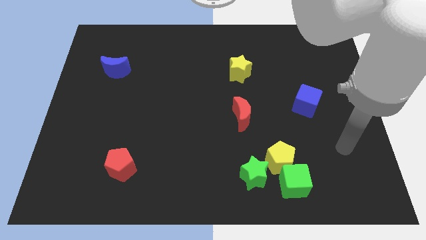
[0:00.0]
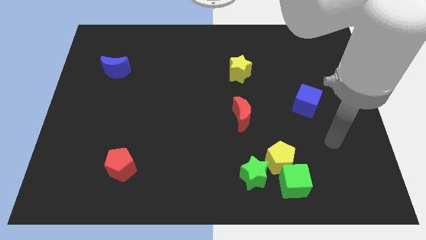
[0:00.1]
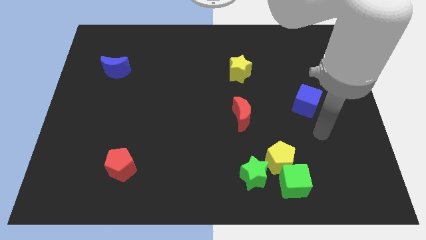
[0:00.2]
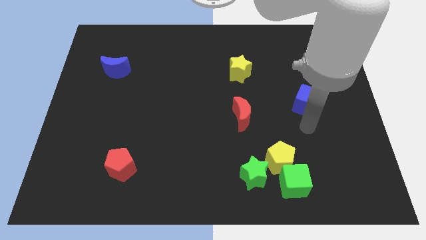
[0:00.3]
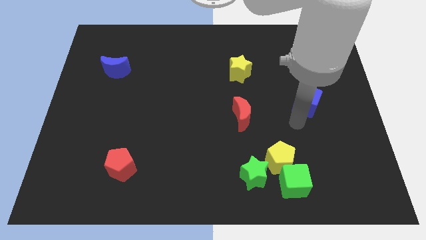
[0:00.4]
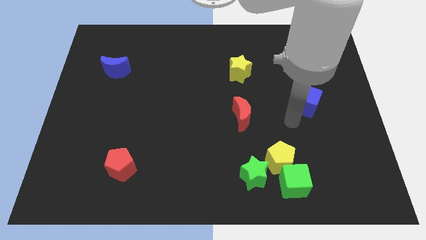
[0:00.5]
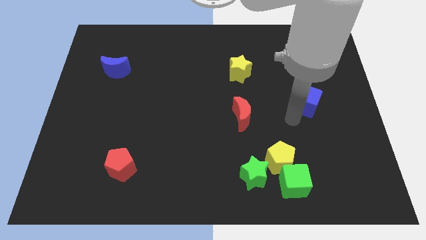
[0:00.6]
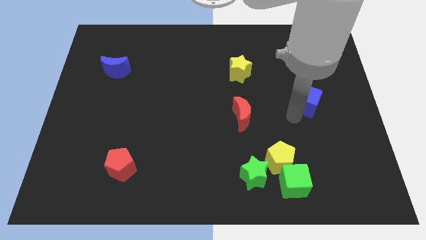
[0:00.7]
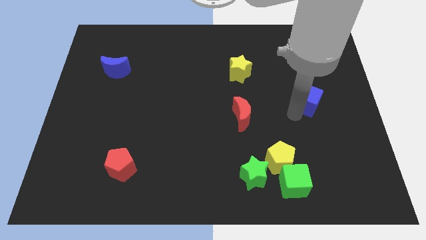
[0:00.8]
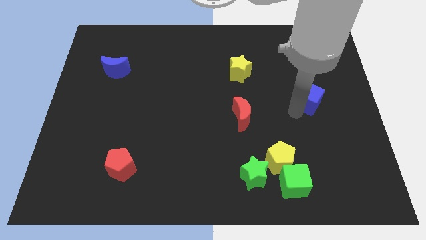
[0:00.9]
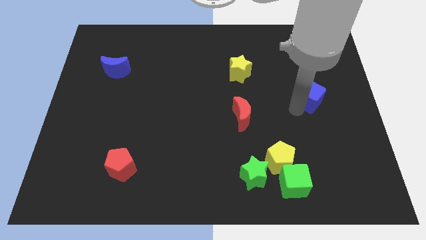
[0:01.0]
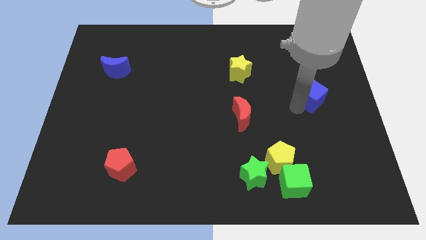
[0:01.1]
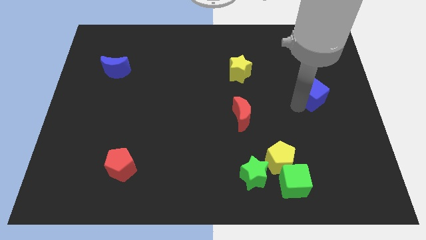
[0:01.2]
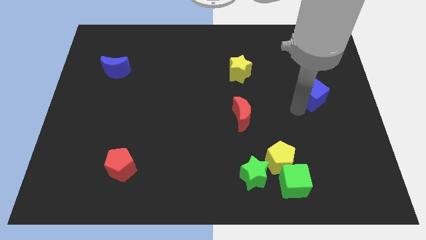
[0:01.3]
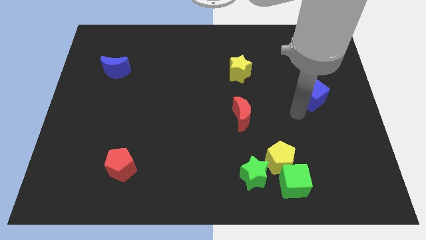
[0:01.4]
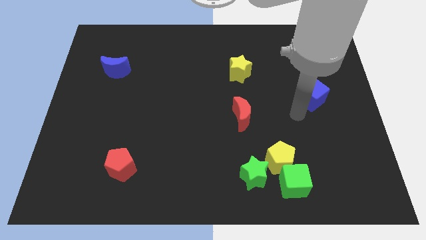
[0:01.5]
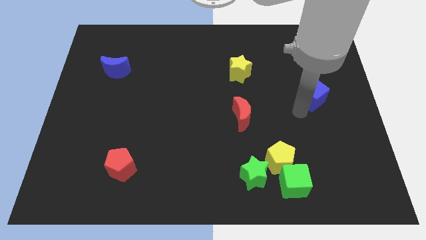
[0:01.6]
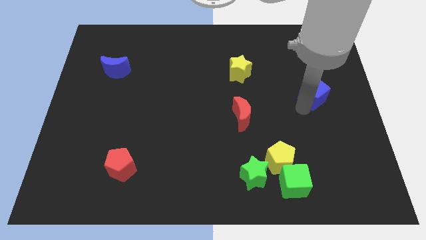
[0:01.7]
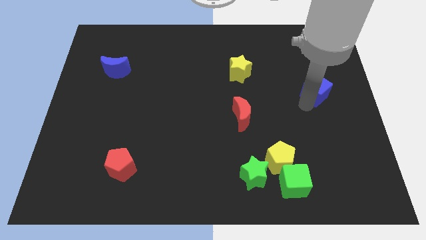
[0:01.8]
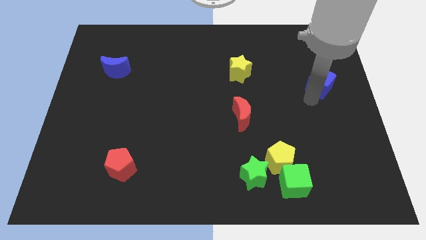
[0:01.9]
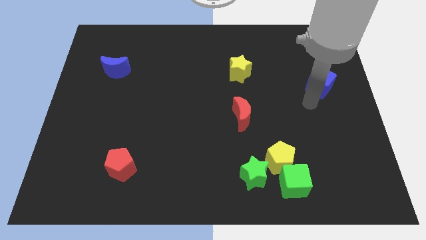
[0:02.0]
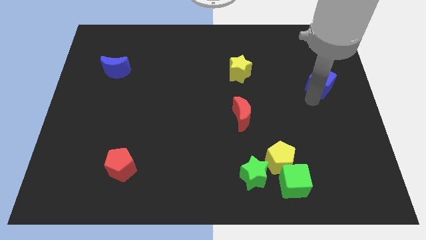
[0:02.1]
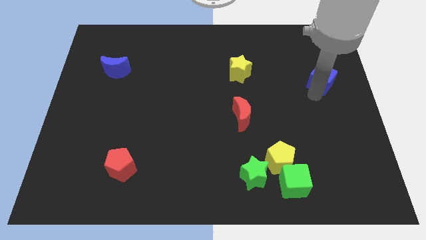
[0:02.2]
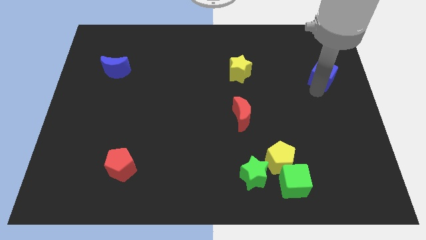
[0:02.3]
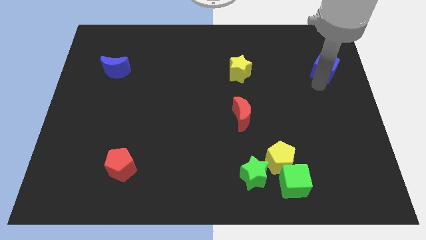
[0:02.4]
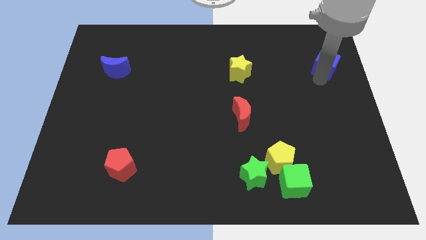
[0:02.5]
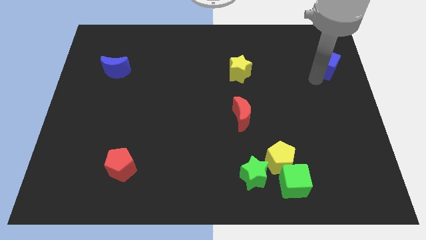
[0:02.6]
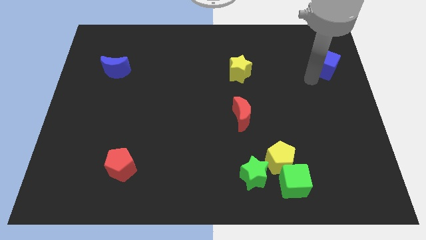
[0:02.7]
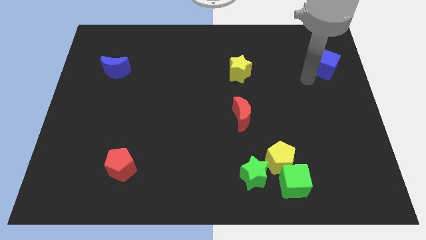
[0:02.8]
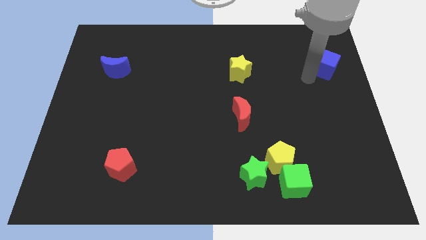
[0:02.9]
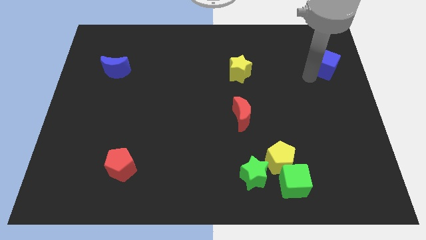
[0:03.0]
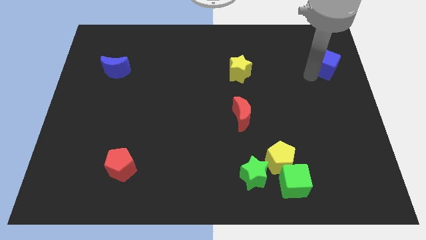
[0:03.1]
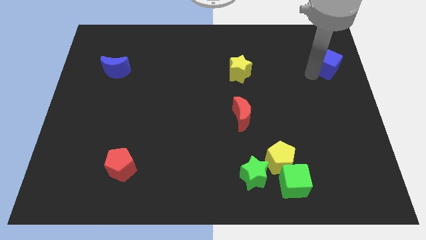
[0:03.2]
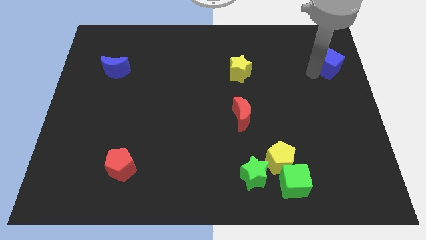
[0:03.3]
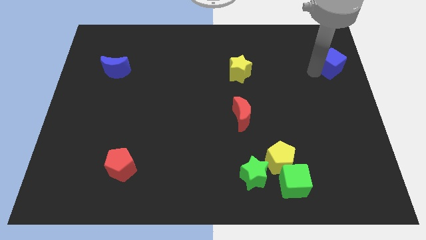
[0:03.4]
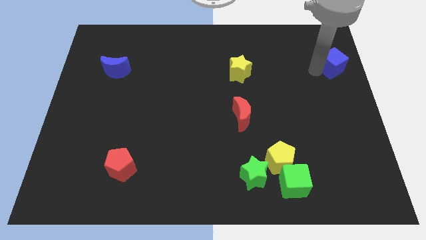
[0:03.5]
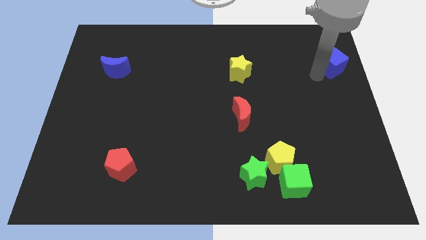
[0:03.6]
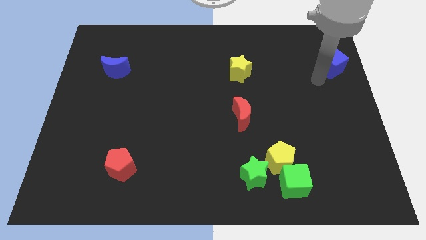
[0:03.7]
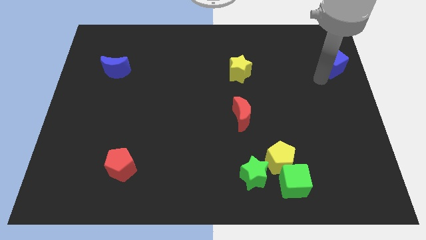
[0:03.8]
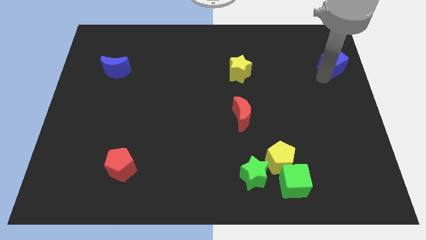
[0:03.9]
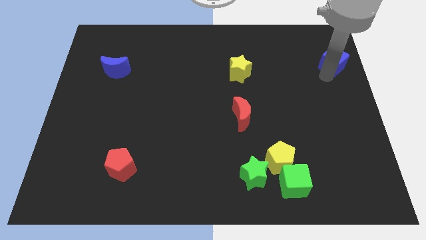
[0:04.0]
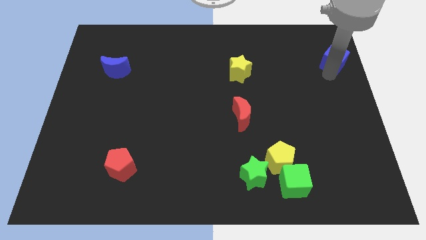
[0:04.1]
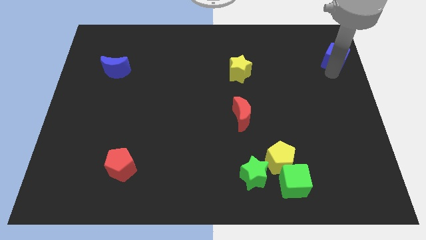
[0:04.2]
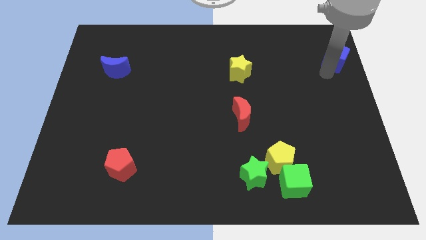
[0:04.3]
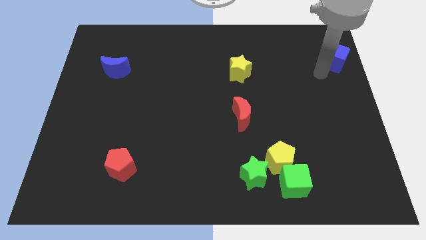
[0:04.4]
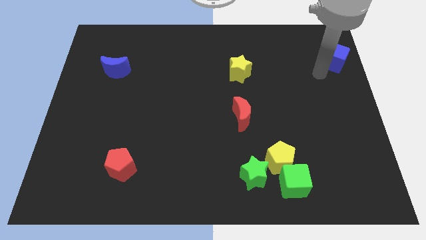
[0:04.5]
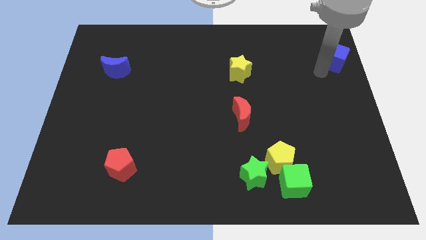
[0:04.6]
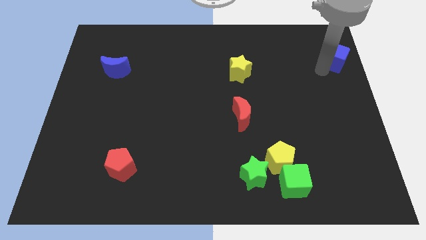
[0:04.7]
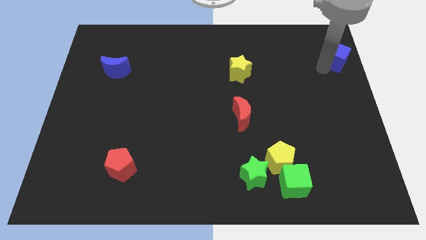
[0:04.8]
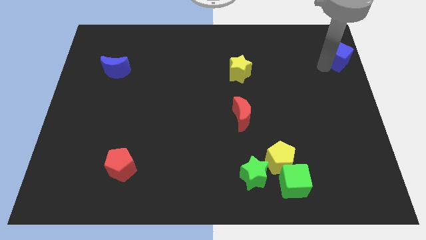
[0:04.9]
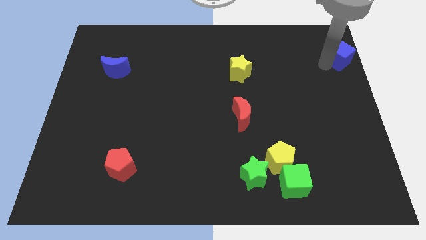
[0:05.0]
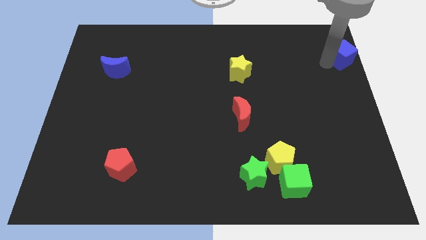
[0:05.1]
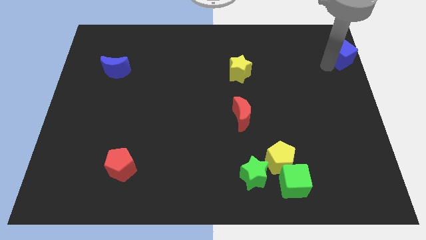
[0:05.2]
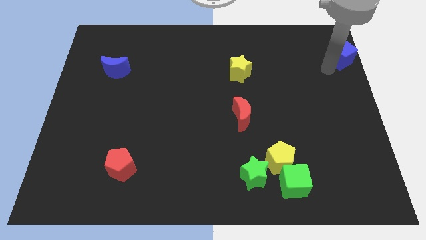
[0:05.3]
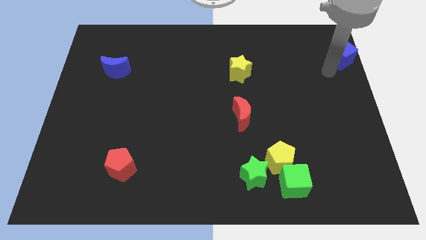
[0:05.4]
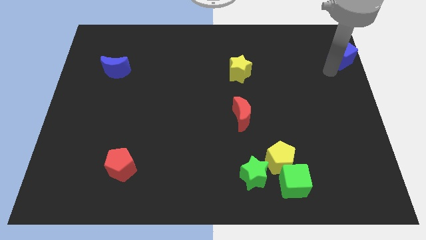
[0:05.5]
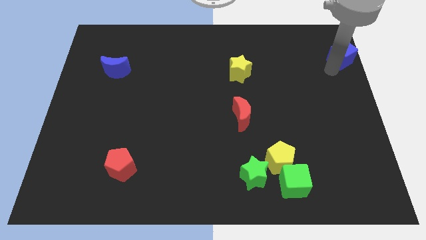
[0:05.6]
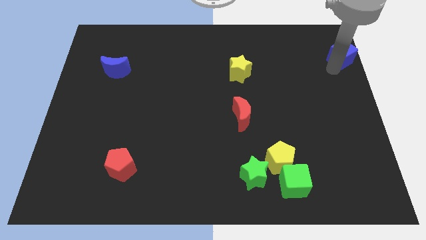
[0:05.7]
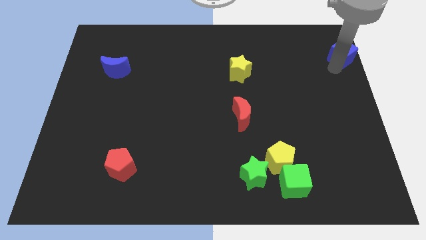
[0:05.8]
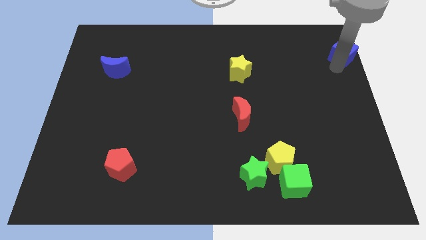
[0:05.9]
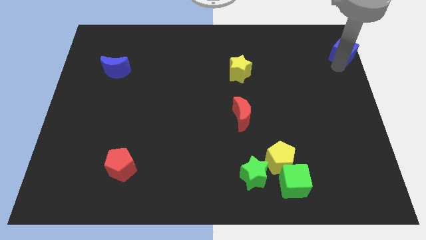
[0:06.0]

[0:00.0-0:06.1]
slide the blue cube to the upper right corner

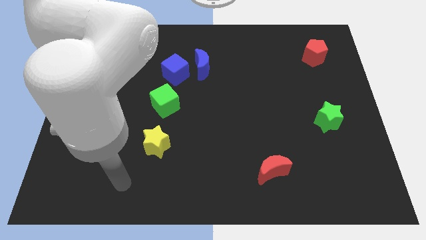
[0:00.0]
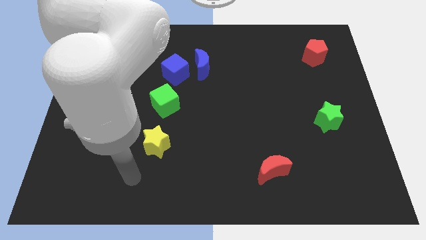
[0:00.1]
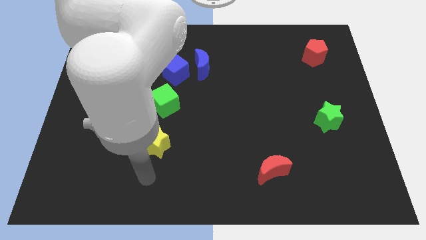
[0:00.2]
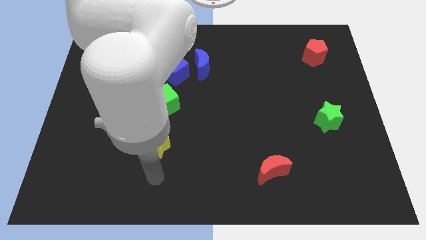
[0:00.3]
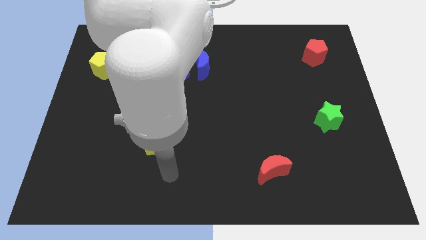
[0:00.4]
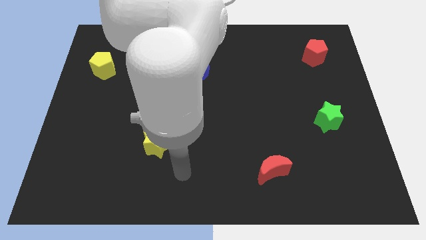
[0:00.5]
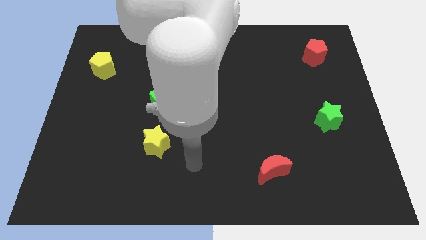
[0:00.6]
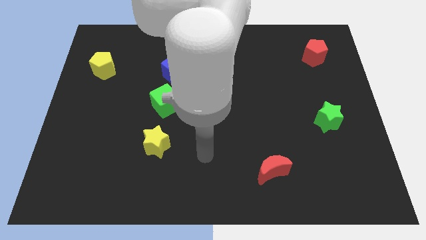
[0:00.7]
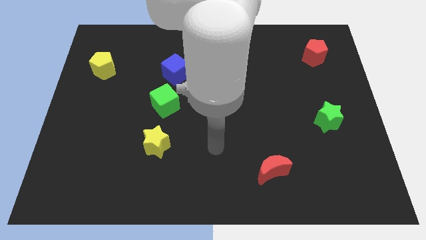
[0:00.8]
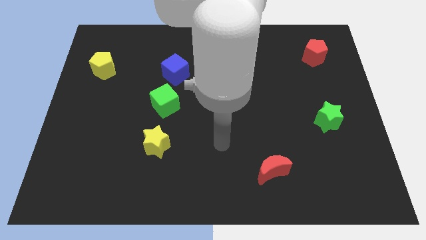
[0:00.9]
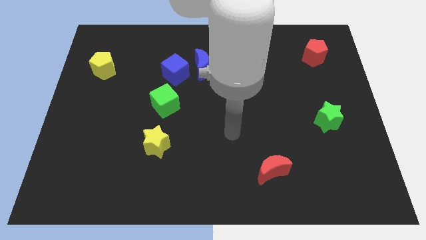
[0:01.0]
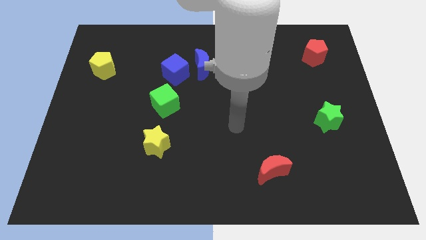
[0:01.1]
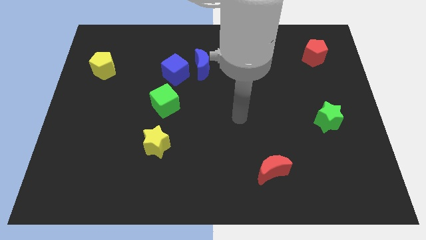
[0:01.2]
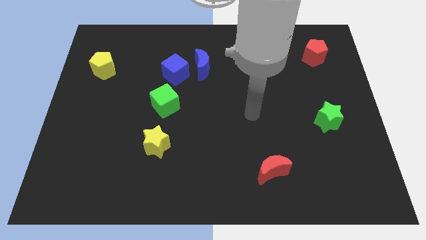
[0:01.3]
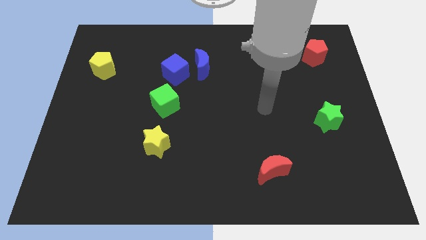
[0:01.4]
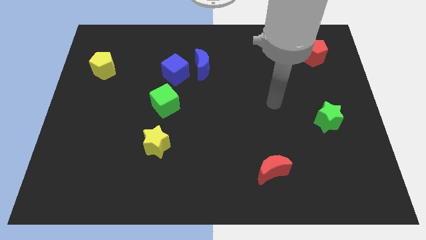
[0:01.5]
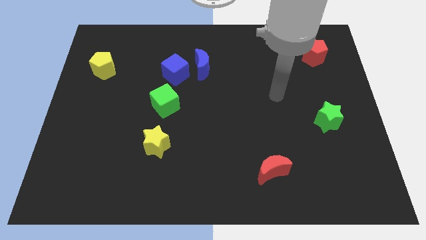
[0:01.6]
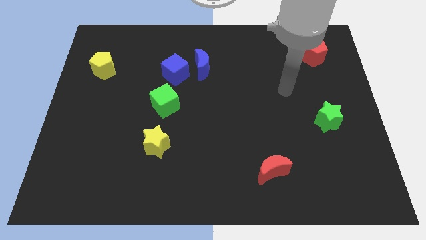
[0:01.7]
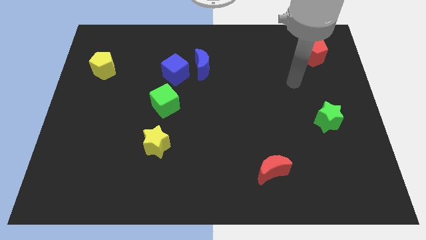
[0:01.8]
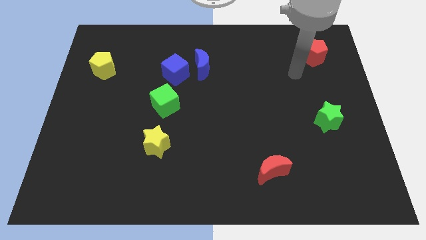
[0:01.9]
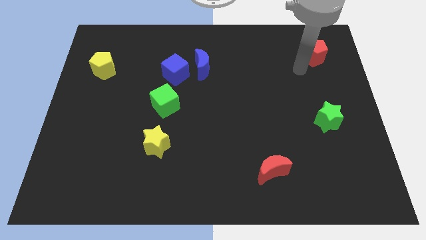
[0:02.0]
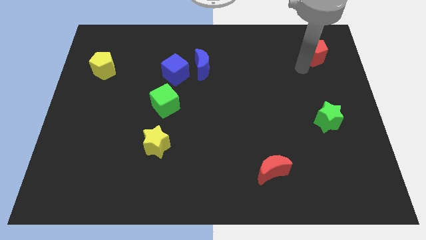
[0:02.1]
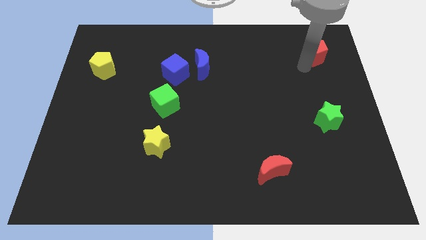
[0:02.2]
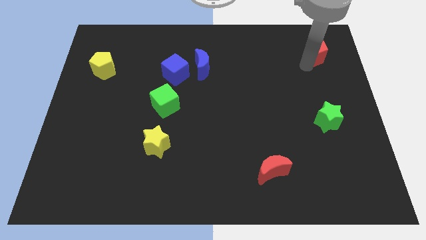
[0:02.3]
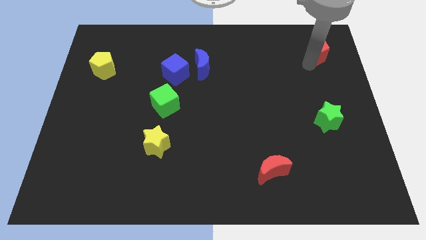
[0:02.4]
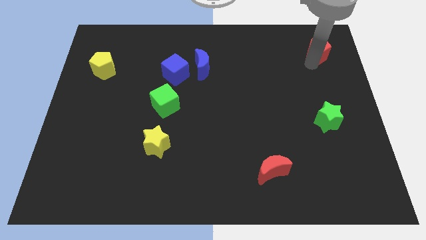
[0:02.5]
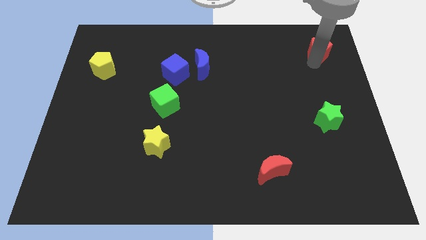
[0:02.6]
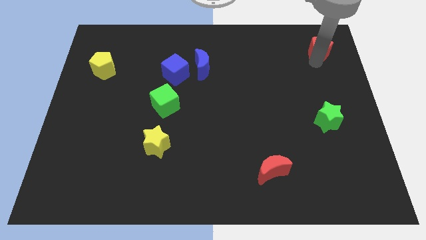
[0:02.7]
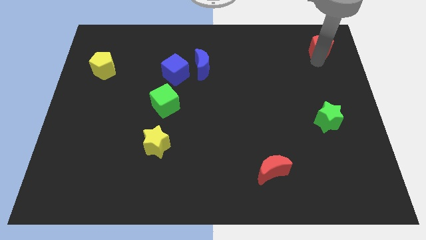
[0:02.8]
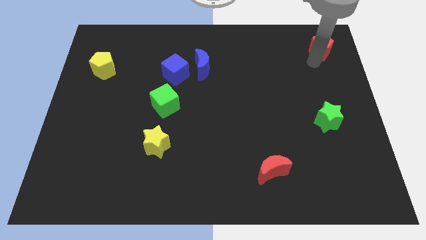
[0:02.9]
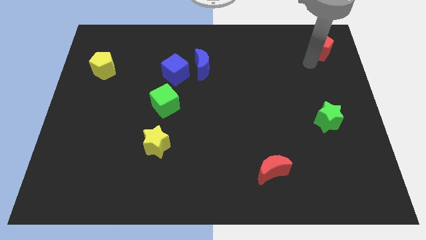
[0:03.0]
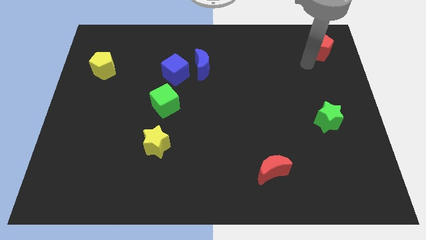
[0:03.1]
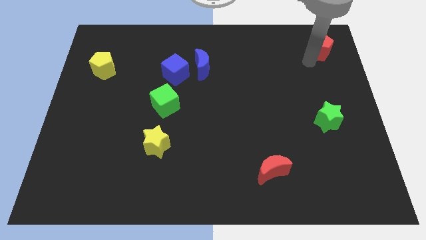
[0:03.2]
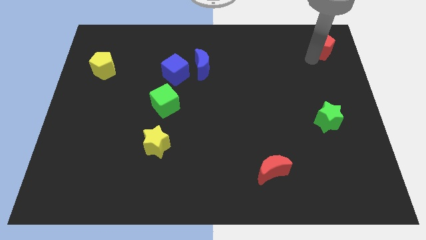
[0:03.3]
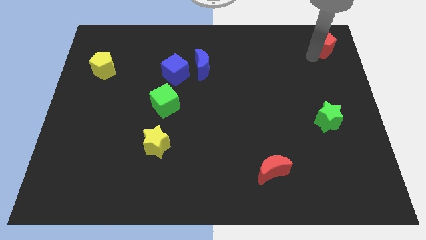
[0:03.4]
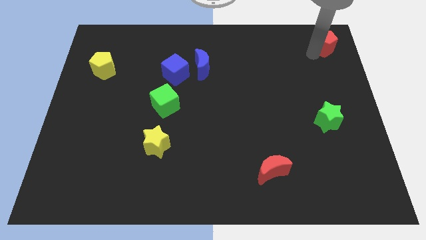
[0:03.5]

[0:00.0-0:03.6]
put the red pentagon to the top right corner
